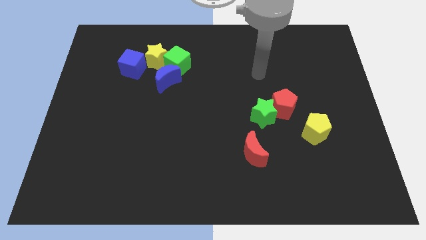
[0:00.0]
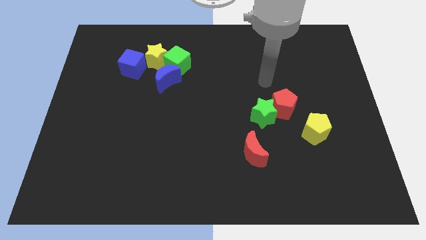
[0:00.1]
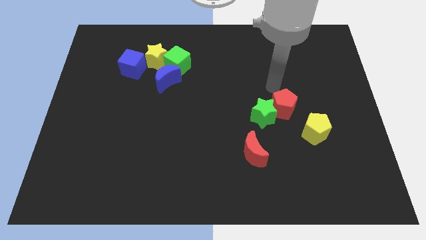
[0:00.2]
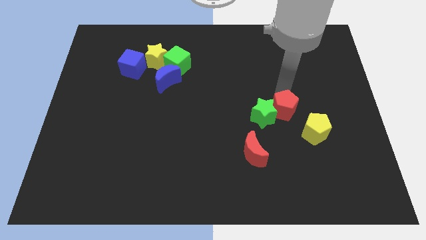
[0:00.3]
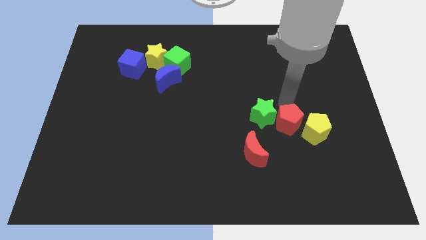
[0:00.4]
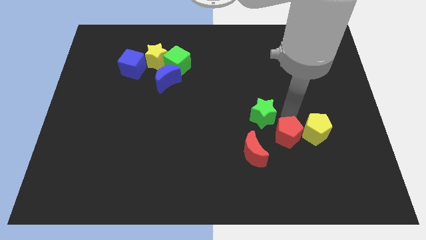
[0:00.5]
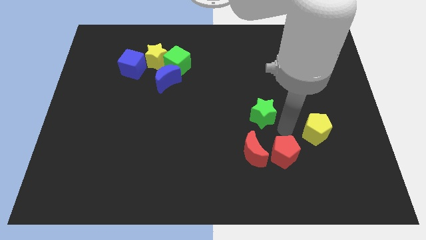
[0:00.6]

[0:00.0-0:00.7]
pull the green star apart from the red pentagon

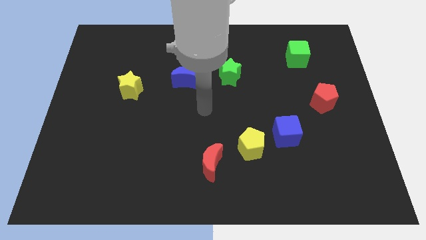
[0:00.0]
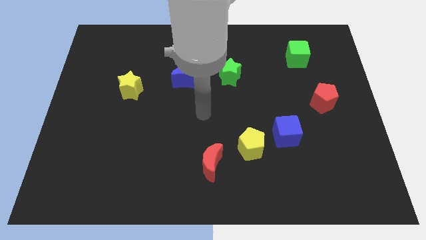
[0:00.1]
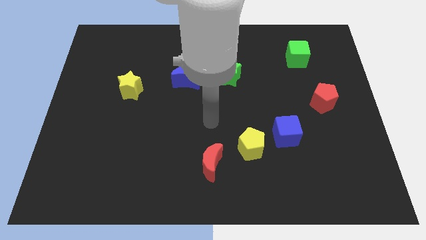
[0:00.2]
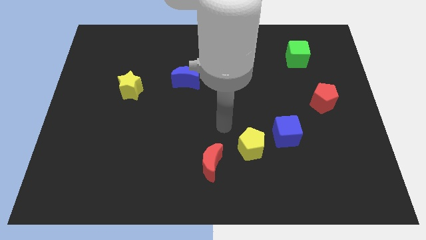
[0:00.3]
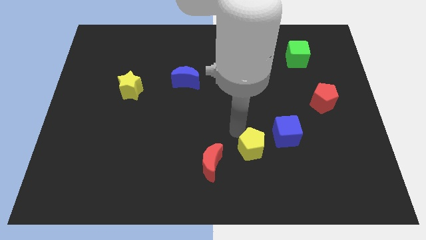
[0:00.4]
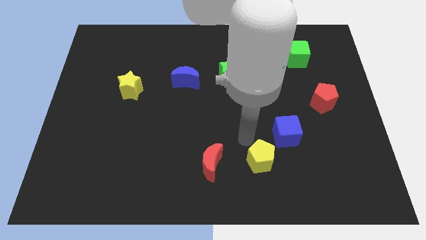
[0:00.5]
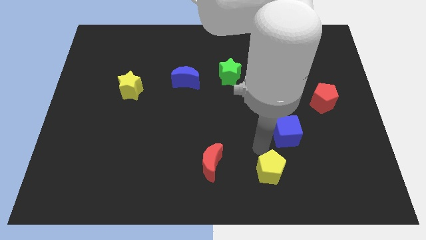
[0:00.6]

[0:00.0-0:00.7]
separate the blue cube from the yellow pentagon

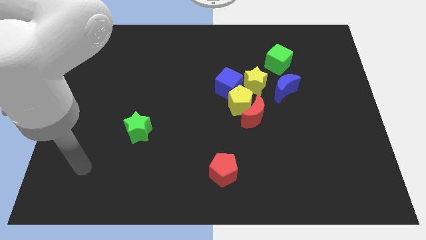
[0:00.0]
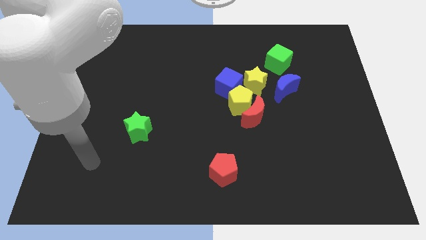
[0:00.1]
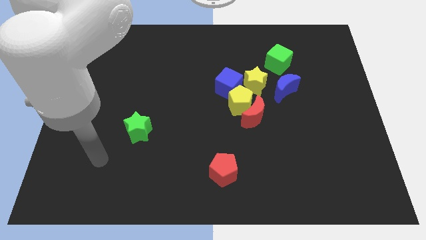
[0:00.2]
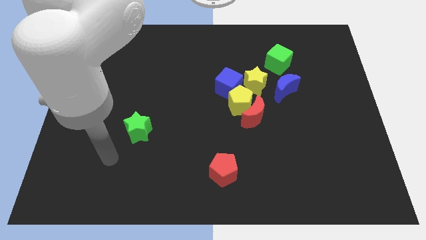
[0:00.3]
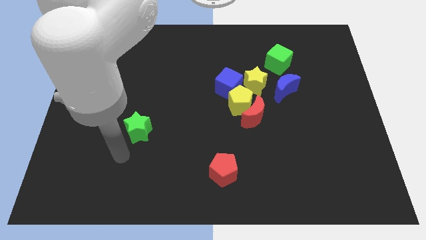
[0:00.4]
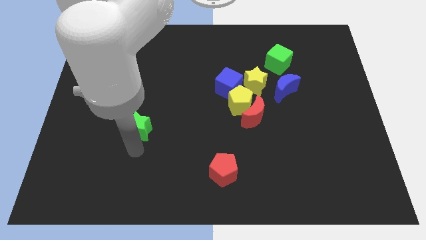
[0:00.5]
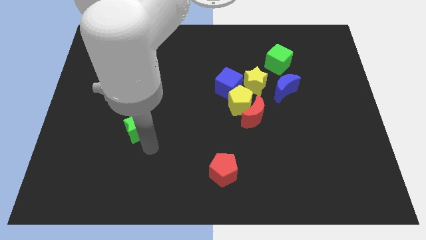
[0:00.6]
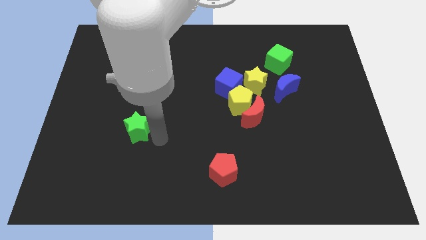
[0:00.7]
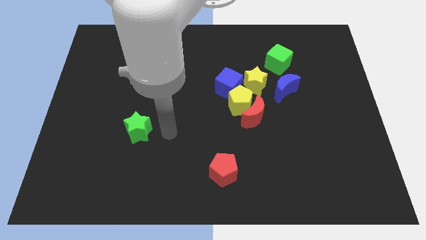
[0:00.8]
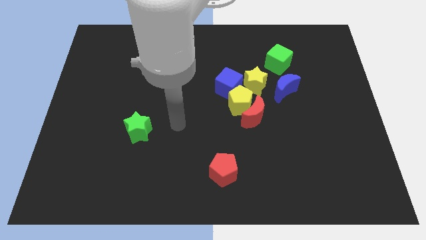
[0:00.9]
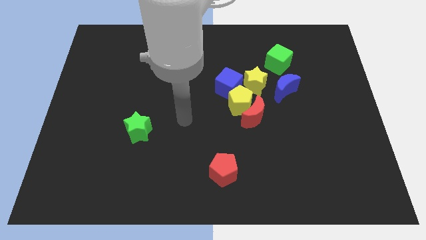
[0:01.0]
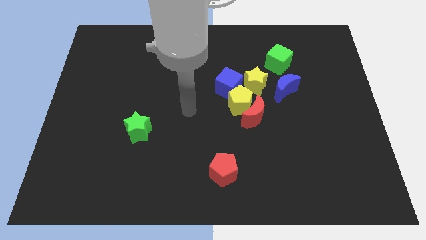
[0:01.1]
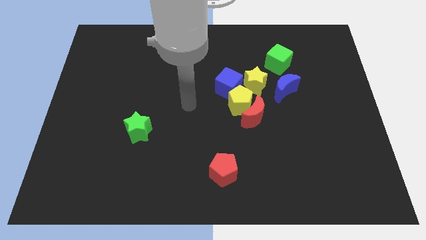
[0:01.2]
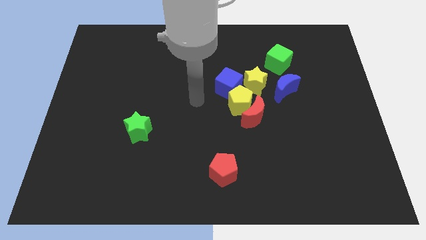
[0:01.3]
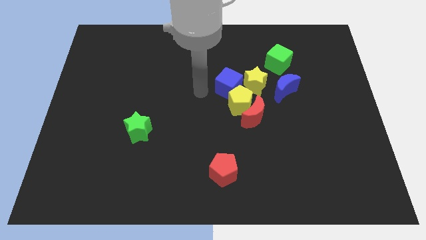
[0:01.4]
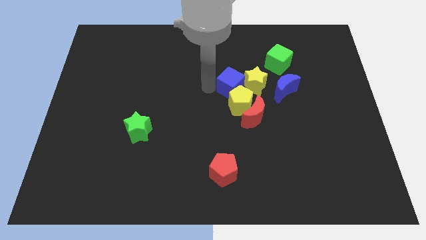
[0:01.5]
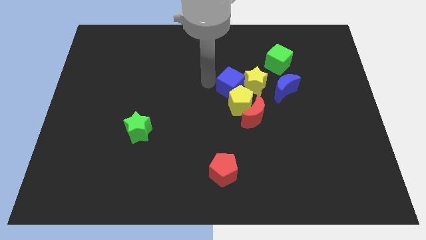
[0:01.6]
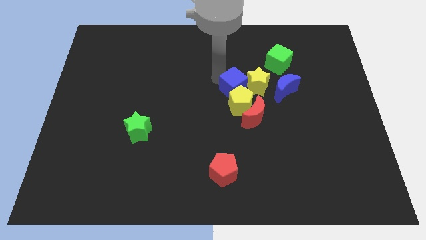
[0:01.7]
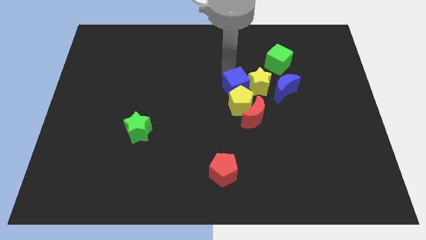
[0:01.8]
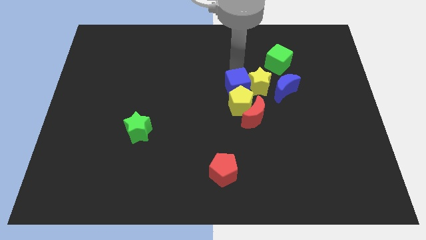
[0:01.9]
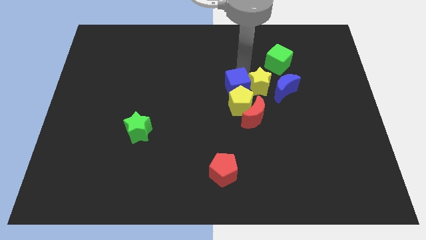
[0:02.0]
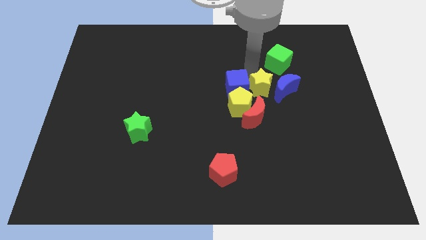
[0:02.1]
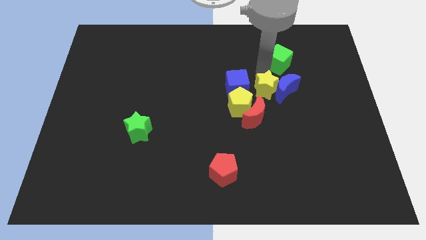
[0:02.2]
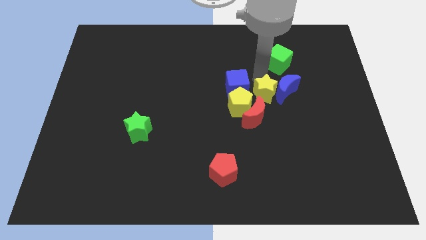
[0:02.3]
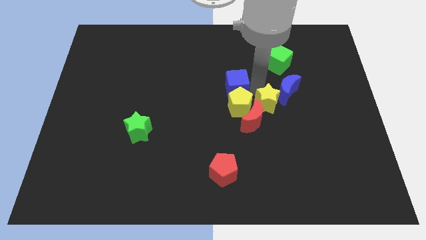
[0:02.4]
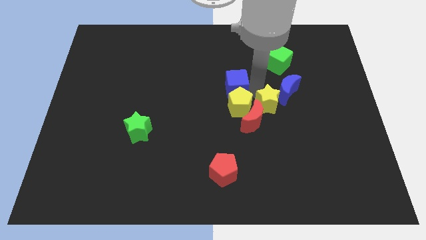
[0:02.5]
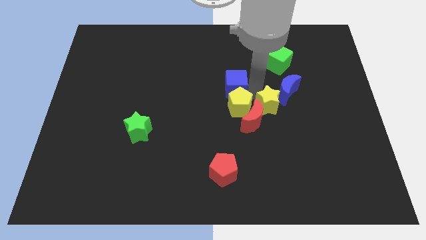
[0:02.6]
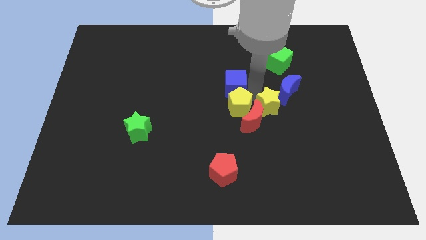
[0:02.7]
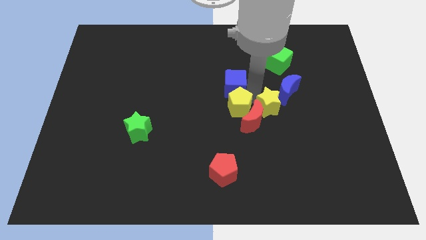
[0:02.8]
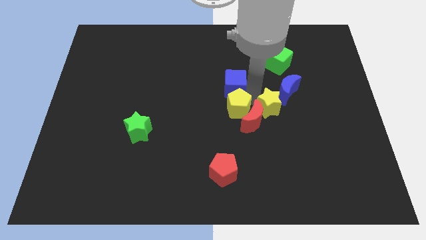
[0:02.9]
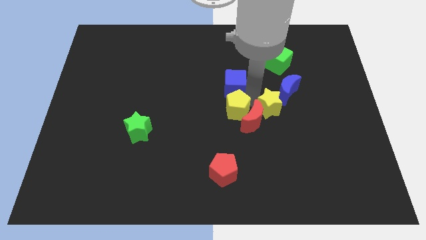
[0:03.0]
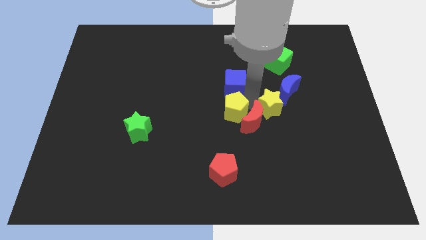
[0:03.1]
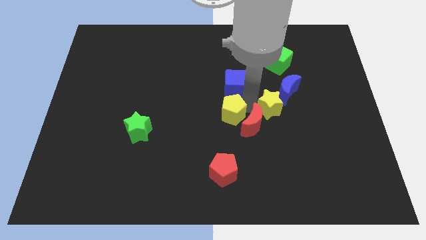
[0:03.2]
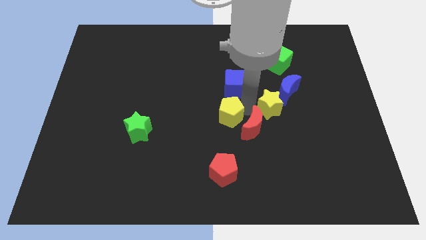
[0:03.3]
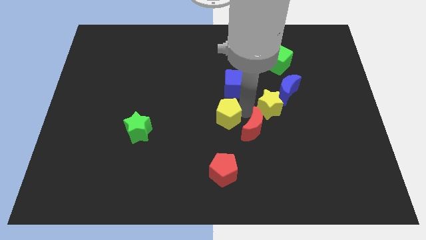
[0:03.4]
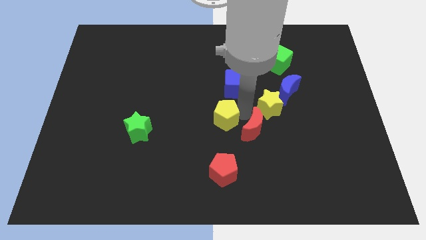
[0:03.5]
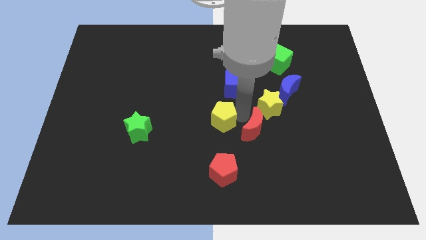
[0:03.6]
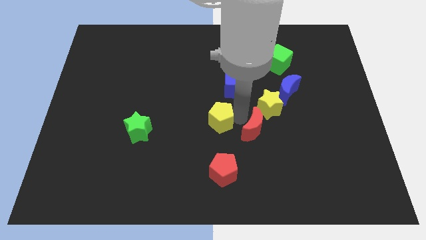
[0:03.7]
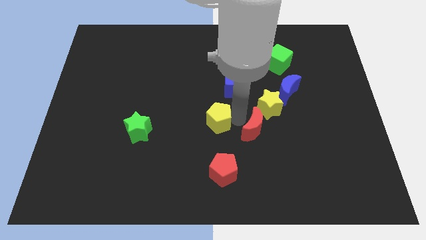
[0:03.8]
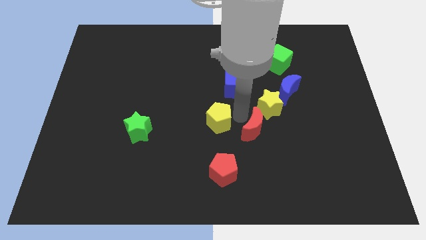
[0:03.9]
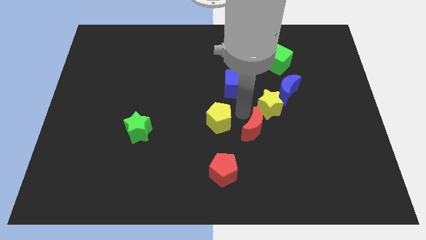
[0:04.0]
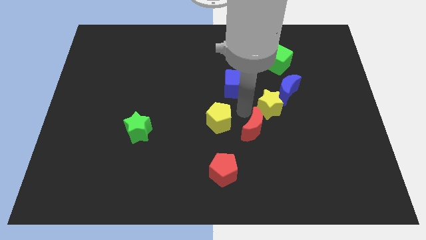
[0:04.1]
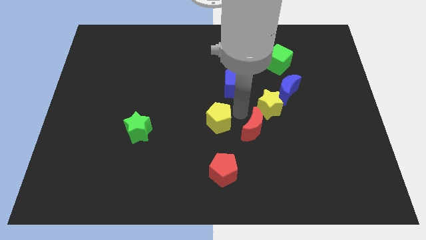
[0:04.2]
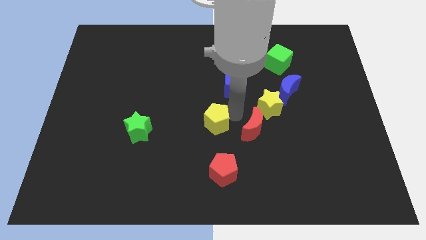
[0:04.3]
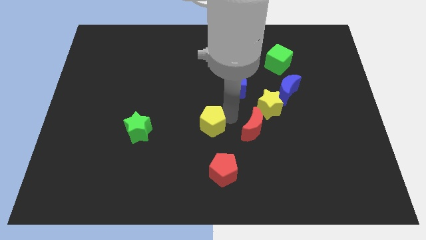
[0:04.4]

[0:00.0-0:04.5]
pull the yellow pentagon apart from the group of blocks

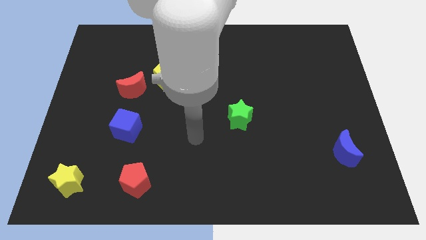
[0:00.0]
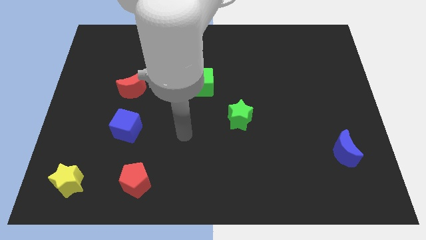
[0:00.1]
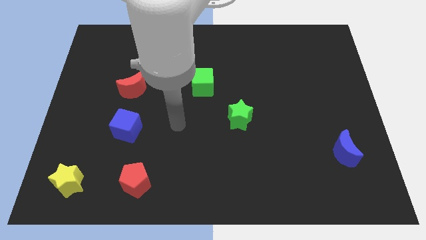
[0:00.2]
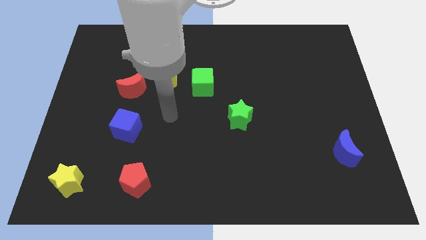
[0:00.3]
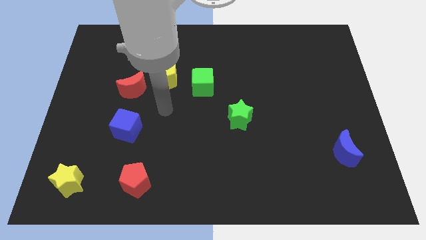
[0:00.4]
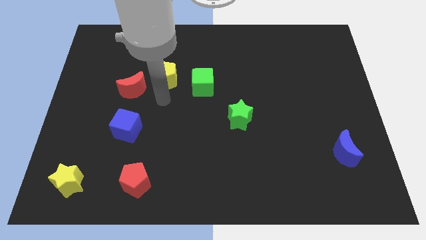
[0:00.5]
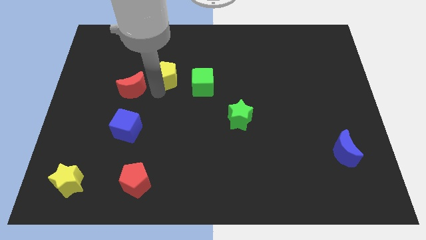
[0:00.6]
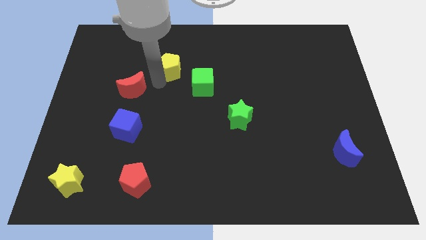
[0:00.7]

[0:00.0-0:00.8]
move the red moon away from the yellow pentagon

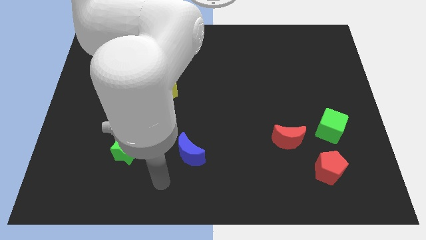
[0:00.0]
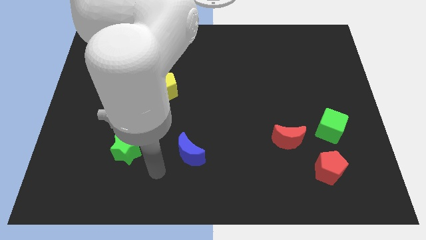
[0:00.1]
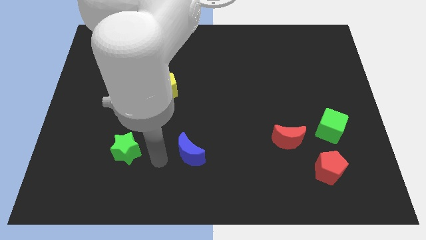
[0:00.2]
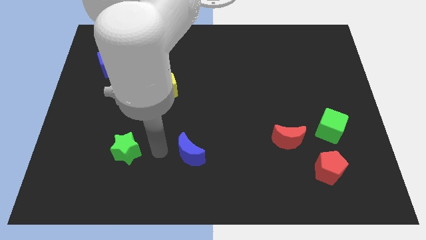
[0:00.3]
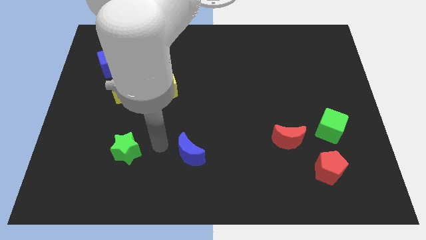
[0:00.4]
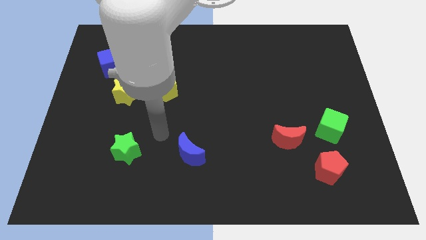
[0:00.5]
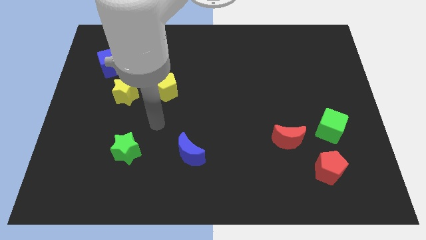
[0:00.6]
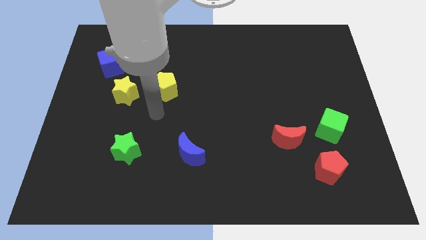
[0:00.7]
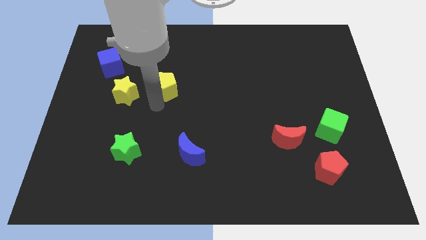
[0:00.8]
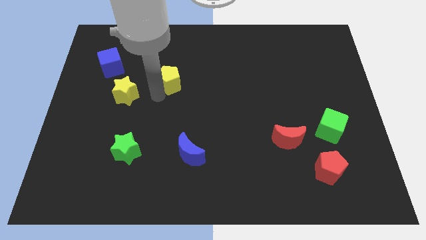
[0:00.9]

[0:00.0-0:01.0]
separate the yellow star from the yellow pentagon

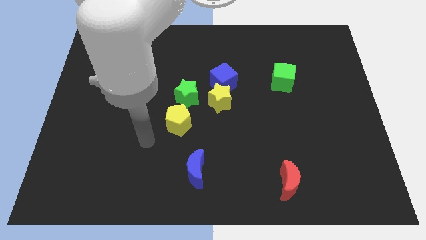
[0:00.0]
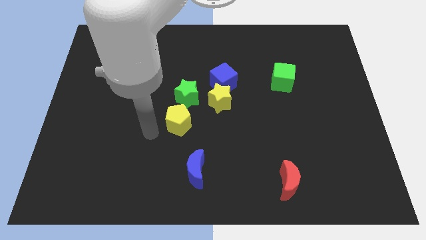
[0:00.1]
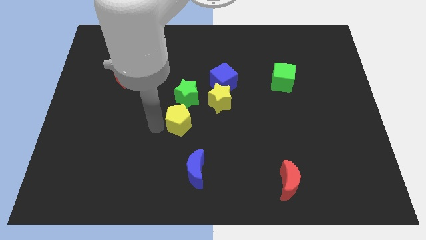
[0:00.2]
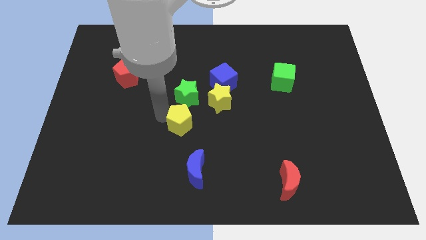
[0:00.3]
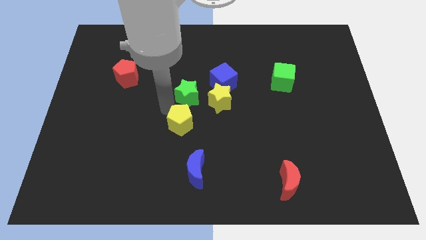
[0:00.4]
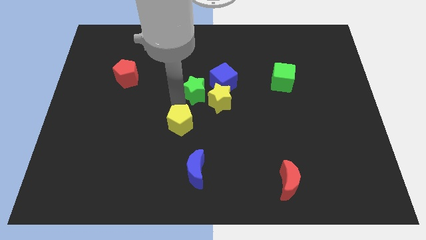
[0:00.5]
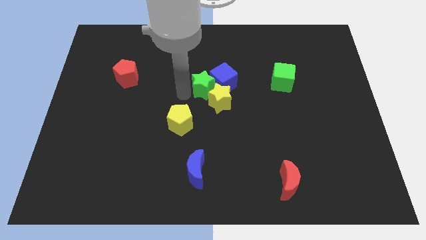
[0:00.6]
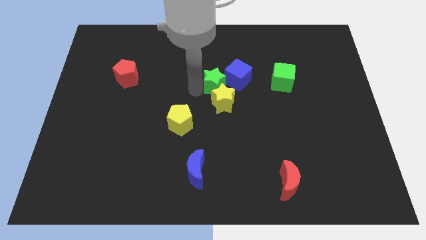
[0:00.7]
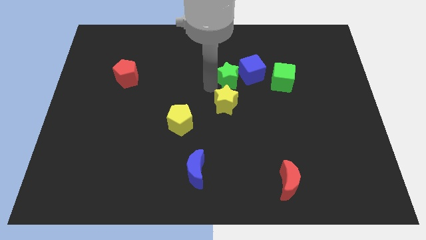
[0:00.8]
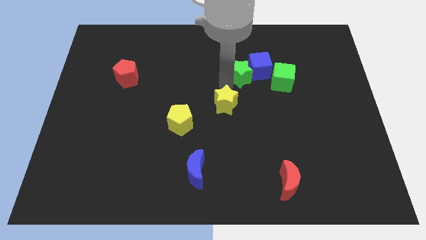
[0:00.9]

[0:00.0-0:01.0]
pull the yellow star apart from the blue cube and green star

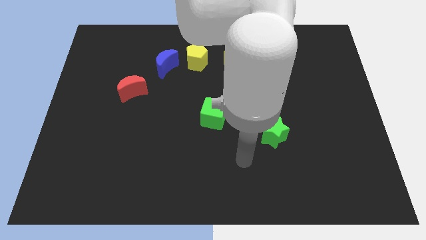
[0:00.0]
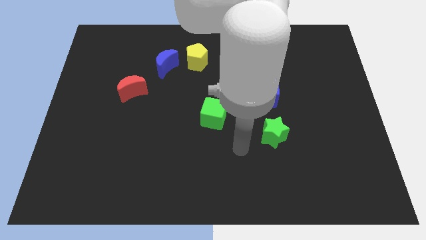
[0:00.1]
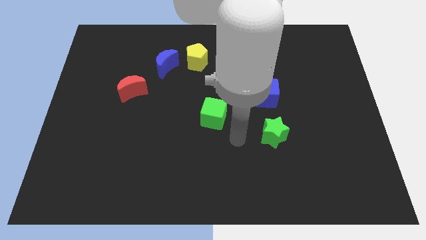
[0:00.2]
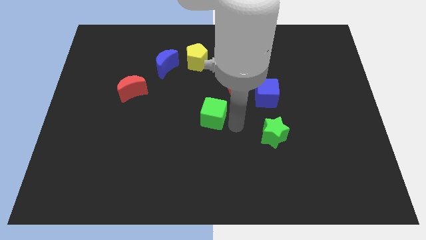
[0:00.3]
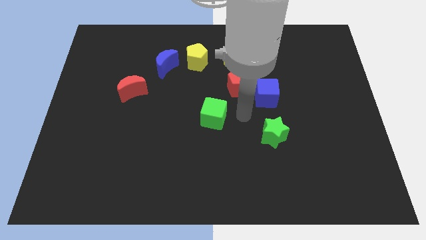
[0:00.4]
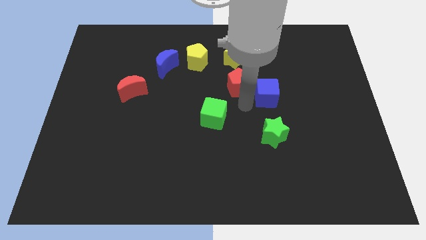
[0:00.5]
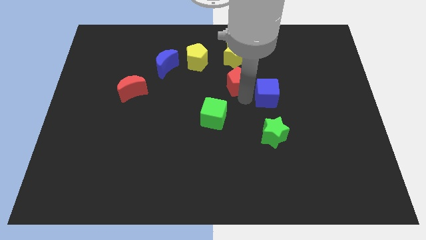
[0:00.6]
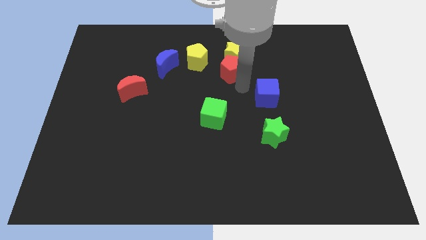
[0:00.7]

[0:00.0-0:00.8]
separate the blue cube from the red pentagon
